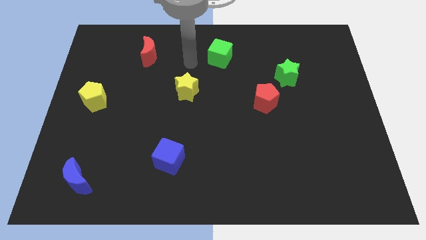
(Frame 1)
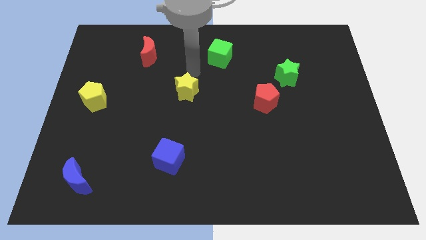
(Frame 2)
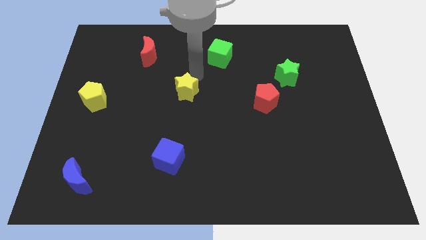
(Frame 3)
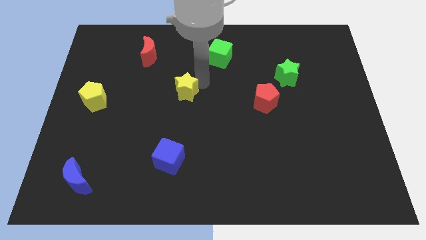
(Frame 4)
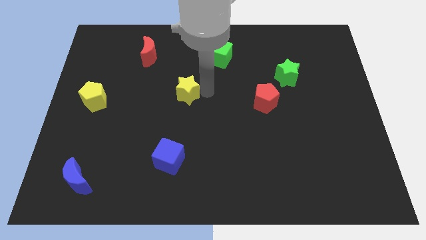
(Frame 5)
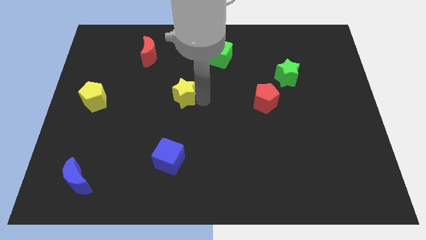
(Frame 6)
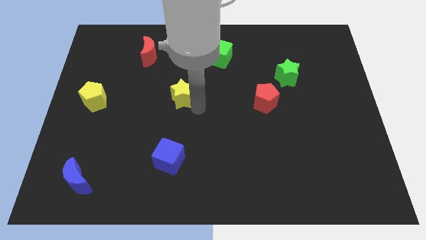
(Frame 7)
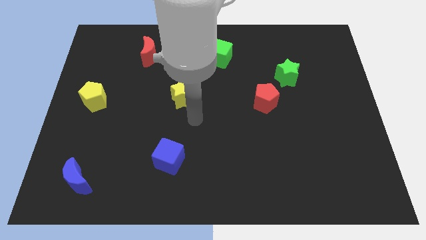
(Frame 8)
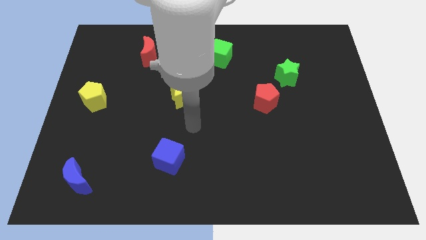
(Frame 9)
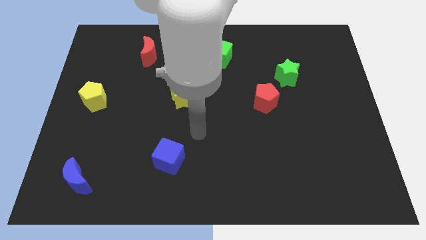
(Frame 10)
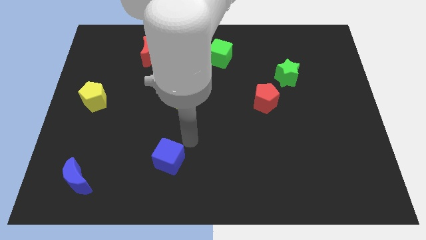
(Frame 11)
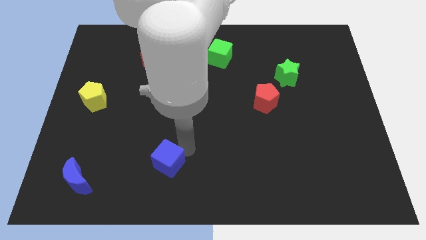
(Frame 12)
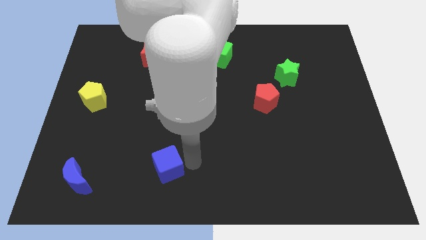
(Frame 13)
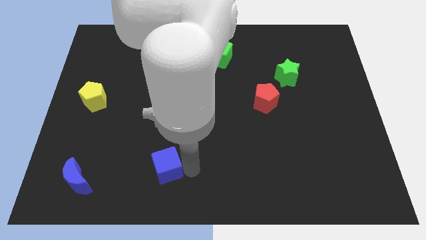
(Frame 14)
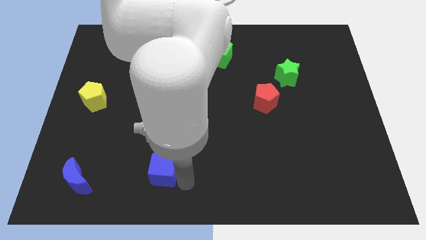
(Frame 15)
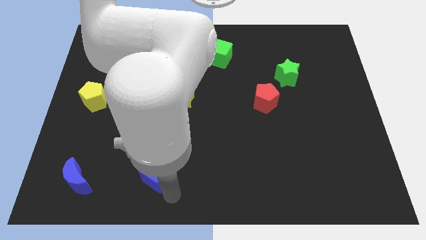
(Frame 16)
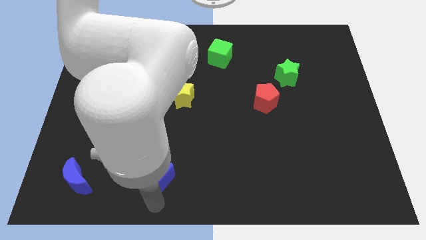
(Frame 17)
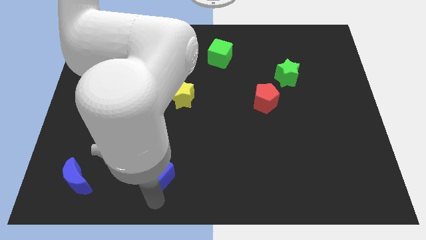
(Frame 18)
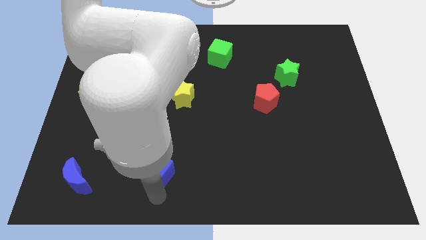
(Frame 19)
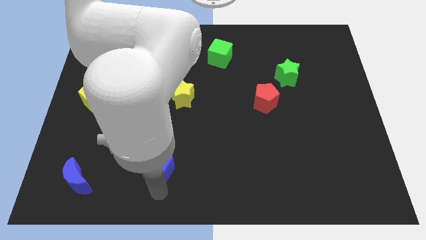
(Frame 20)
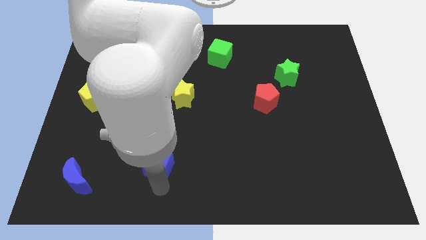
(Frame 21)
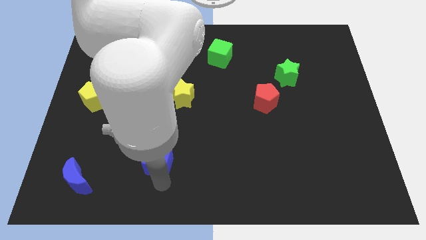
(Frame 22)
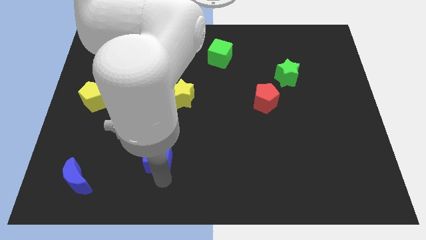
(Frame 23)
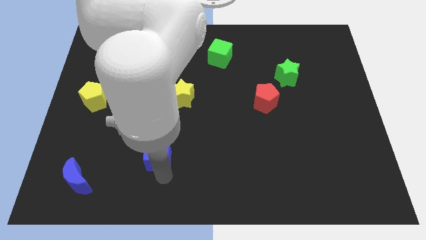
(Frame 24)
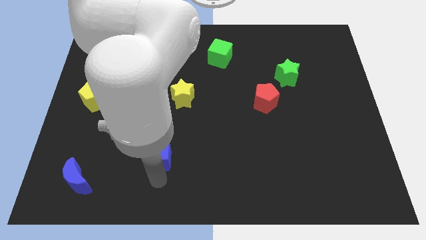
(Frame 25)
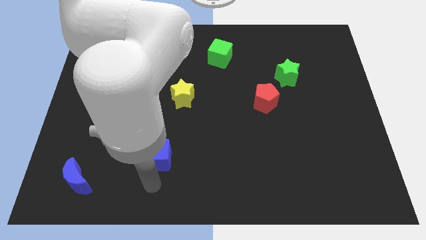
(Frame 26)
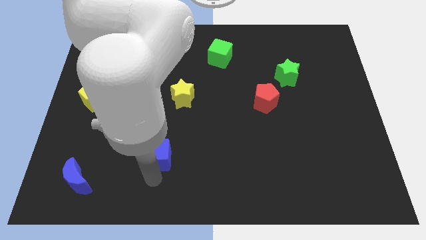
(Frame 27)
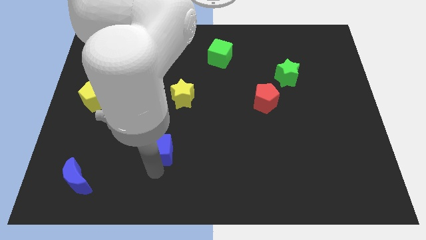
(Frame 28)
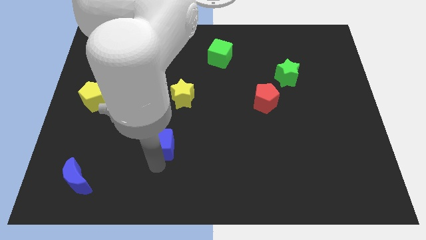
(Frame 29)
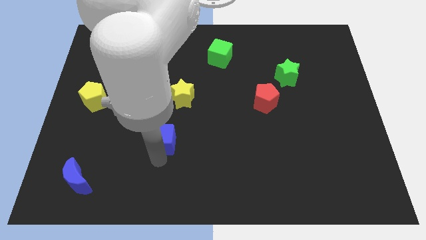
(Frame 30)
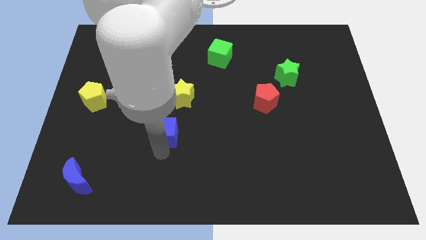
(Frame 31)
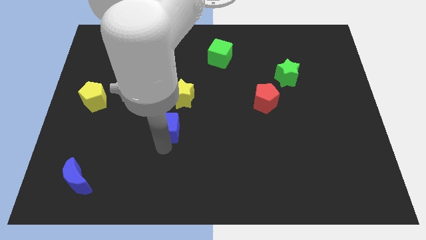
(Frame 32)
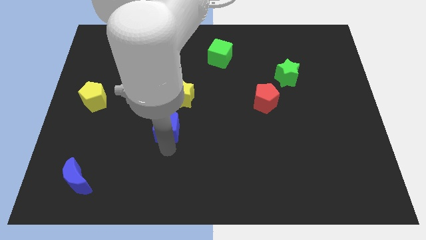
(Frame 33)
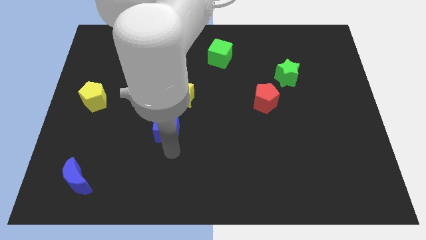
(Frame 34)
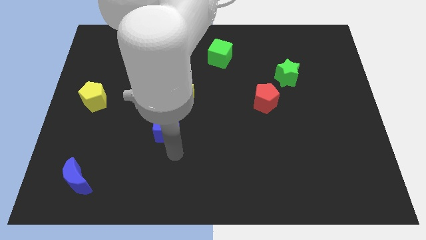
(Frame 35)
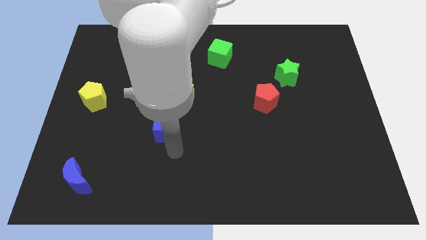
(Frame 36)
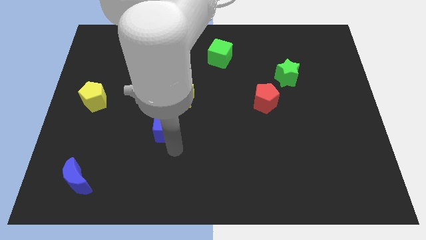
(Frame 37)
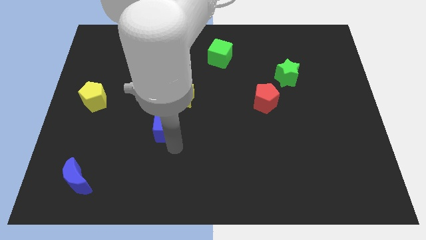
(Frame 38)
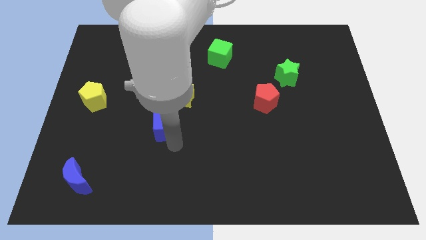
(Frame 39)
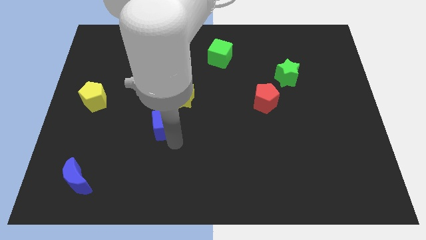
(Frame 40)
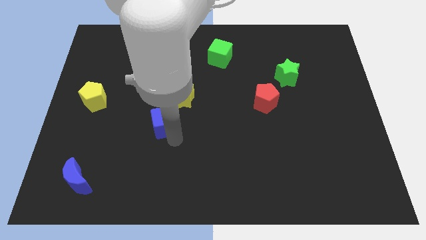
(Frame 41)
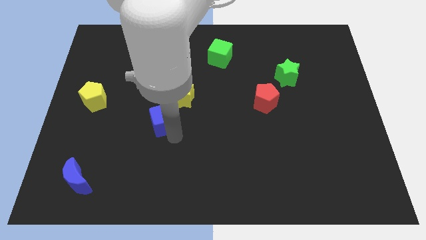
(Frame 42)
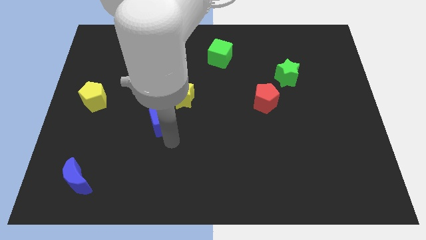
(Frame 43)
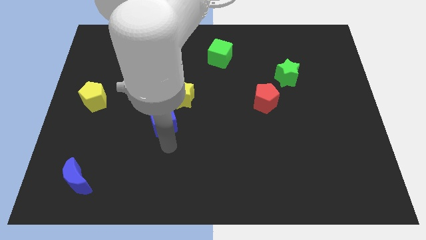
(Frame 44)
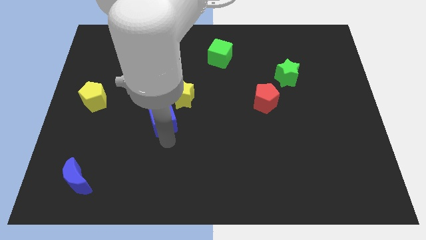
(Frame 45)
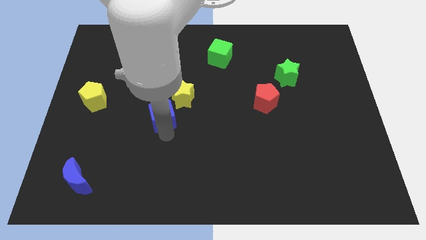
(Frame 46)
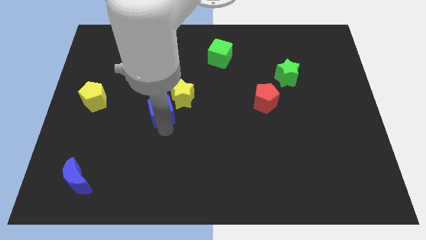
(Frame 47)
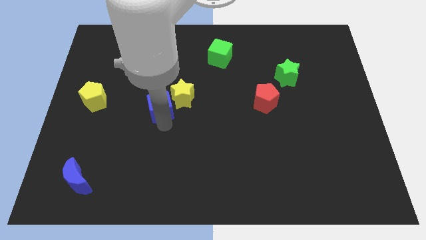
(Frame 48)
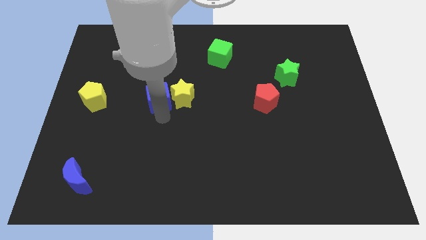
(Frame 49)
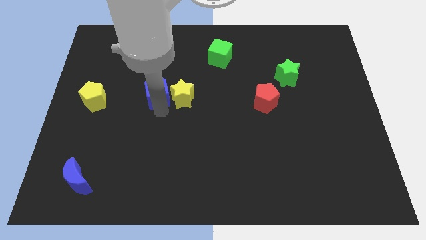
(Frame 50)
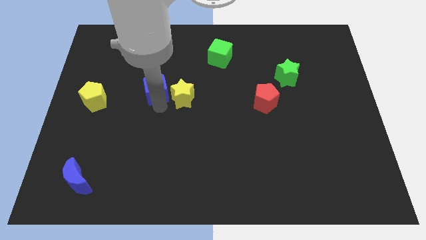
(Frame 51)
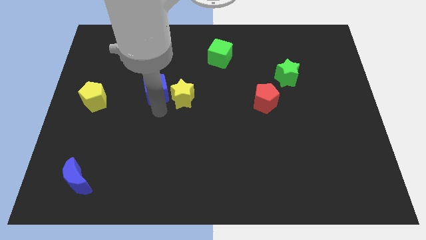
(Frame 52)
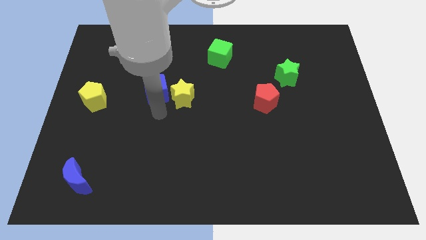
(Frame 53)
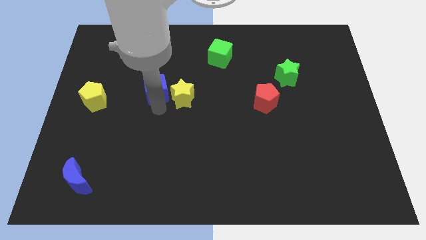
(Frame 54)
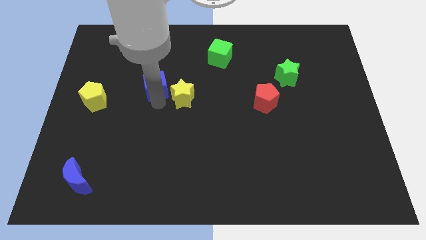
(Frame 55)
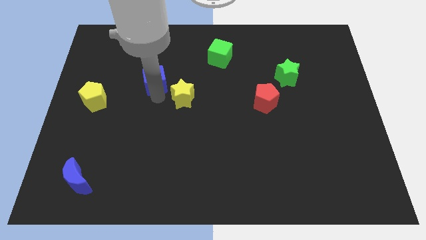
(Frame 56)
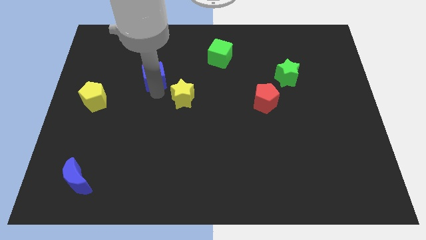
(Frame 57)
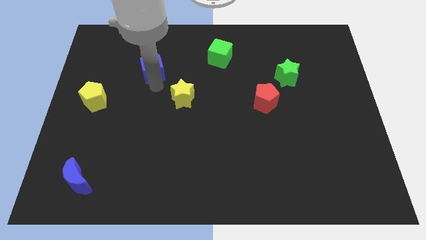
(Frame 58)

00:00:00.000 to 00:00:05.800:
put the blue cube towards the red moon

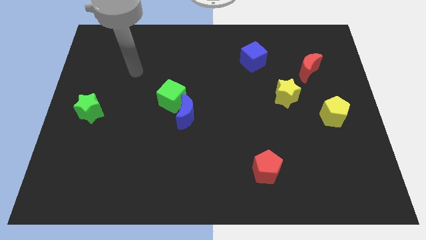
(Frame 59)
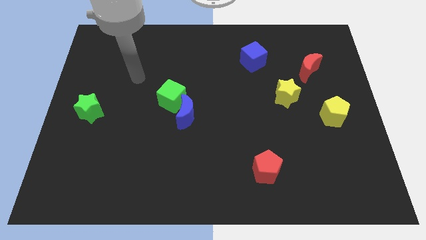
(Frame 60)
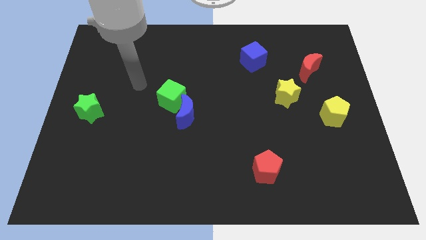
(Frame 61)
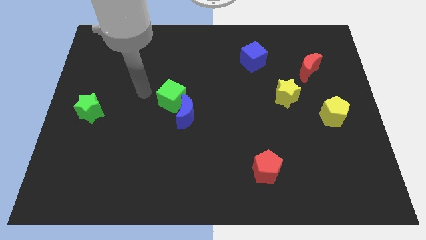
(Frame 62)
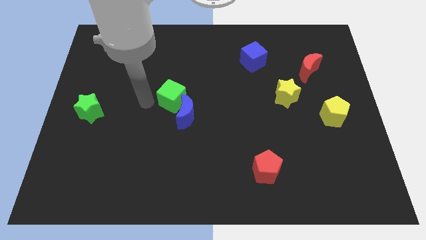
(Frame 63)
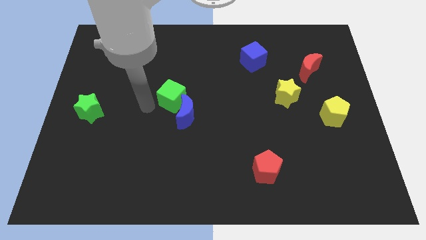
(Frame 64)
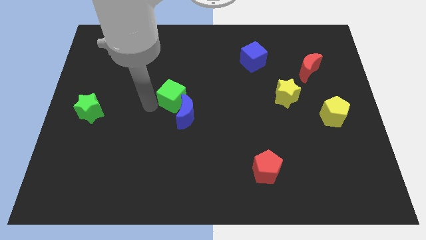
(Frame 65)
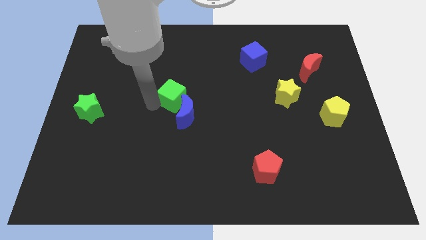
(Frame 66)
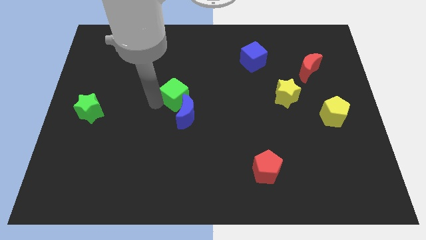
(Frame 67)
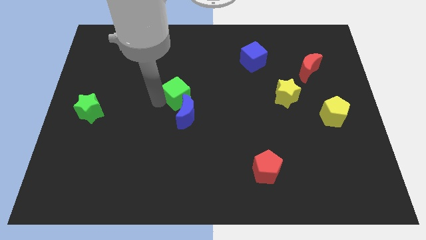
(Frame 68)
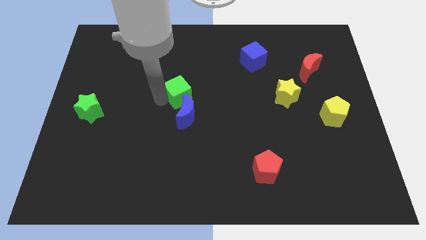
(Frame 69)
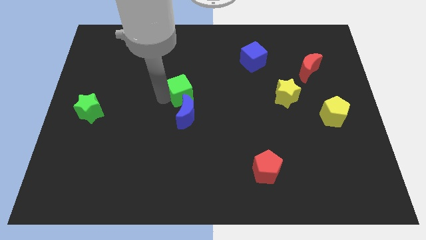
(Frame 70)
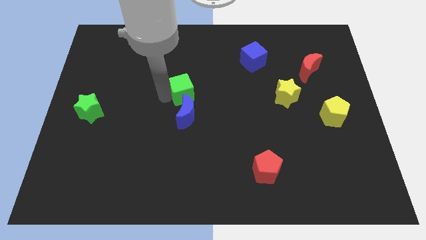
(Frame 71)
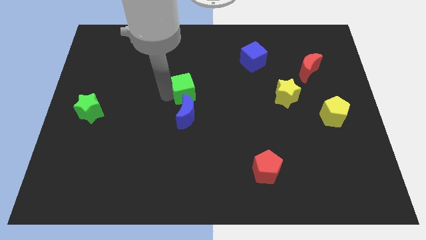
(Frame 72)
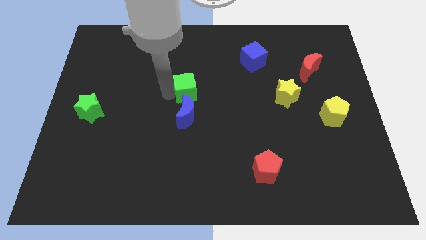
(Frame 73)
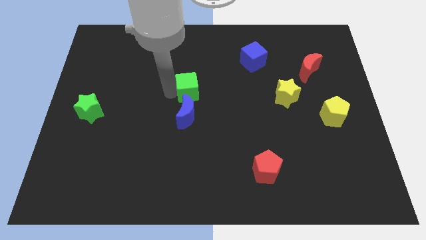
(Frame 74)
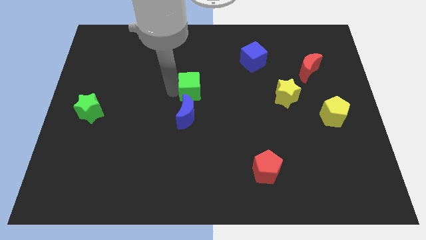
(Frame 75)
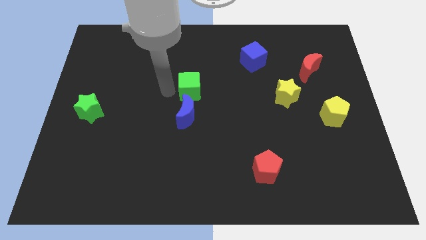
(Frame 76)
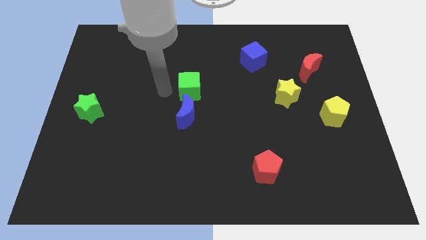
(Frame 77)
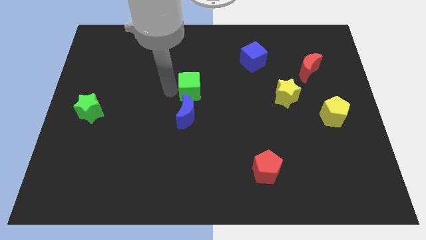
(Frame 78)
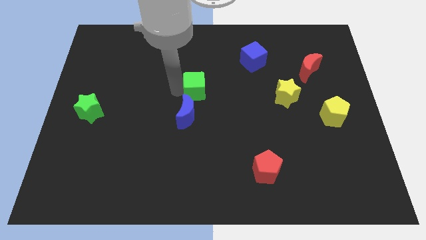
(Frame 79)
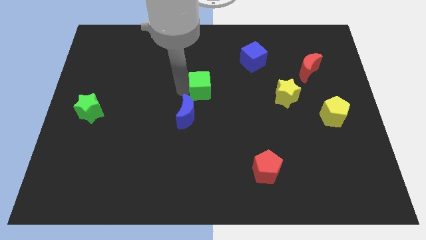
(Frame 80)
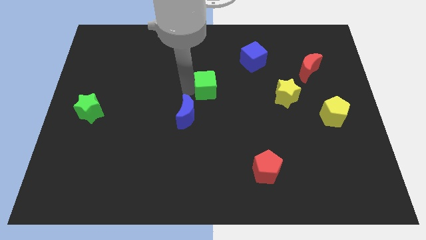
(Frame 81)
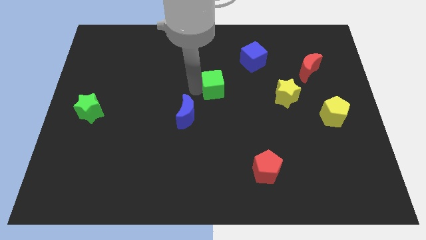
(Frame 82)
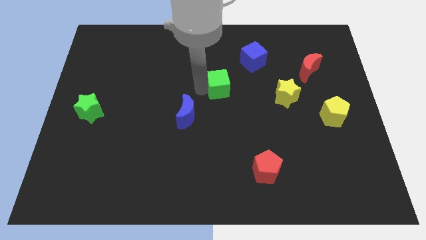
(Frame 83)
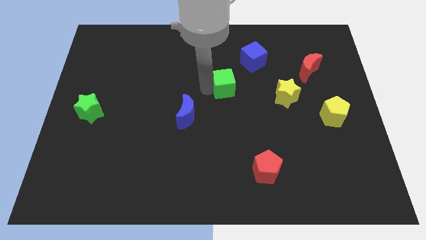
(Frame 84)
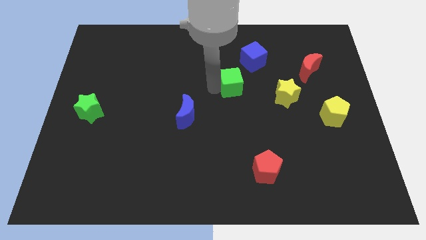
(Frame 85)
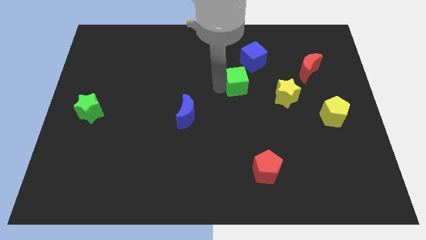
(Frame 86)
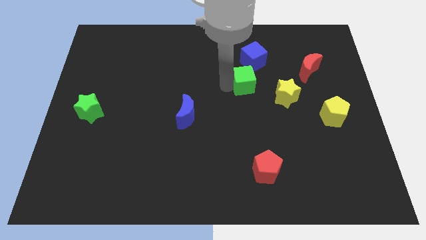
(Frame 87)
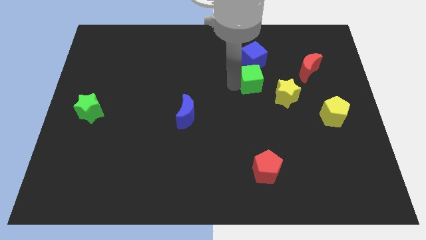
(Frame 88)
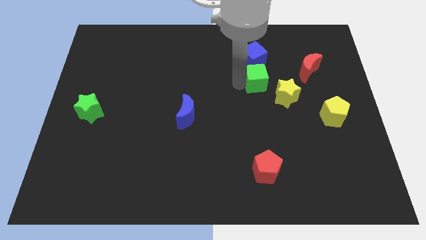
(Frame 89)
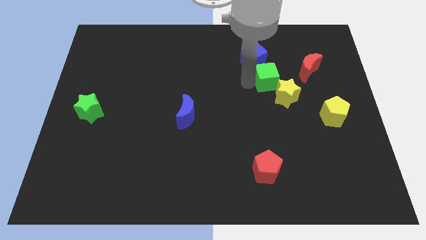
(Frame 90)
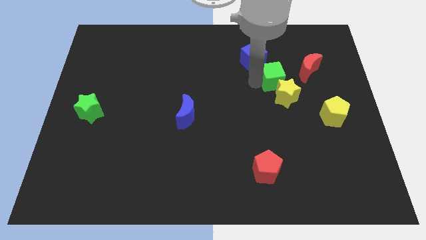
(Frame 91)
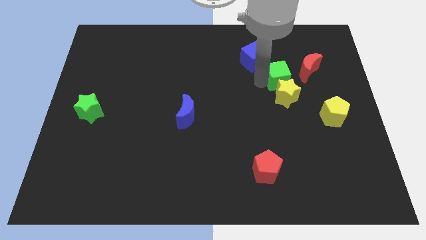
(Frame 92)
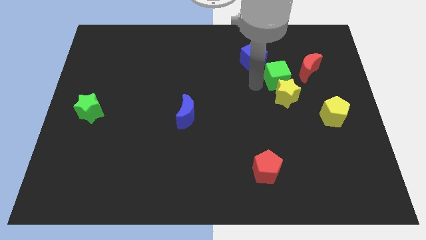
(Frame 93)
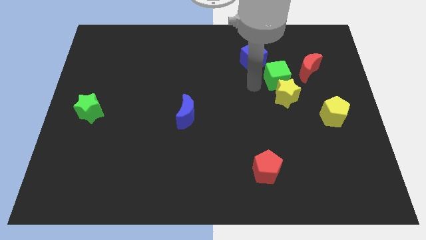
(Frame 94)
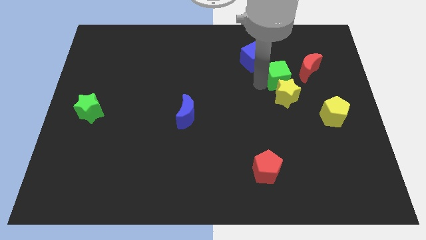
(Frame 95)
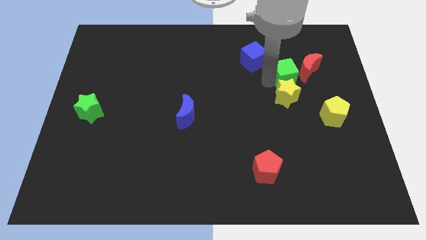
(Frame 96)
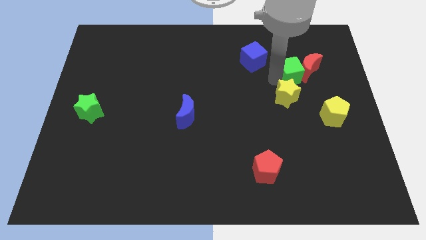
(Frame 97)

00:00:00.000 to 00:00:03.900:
move the green cube close to the red moon
